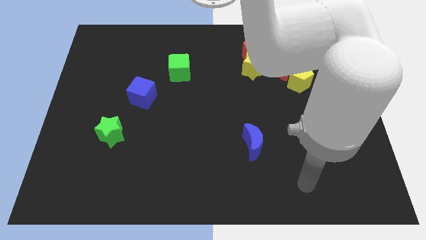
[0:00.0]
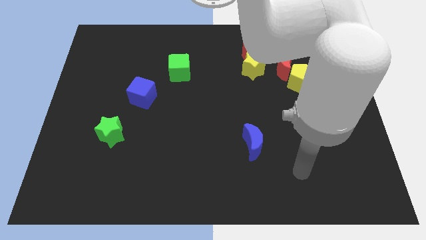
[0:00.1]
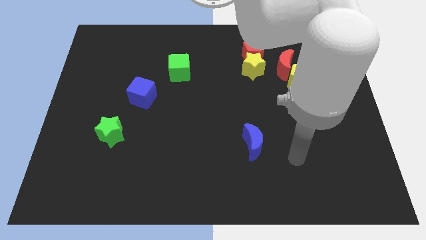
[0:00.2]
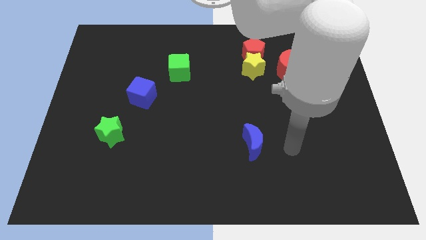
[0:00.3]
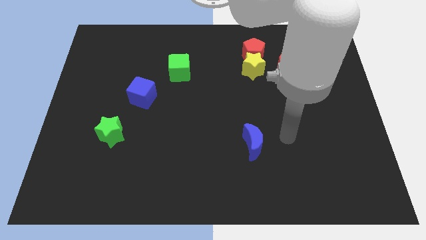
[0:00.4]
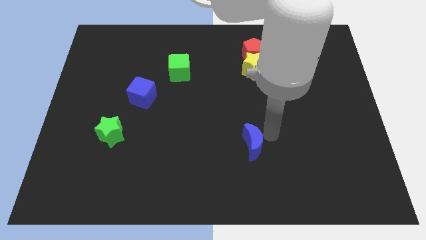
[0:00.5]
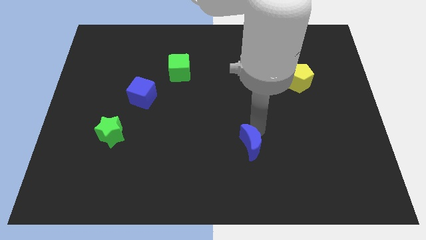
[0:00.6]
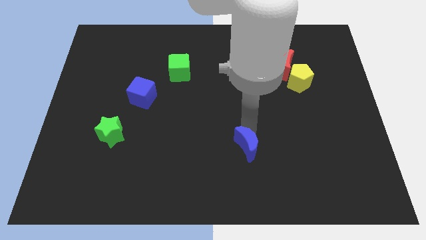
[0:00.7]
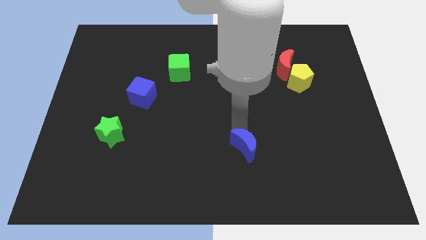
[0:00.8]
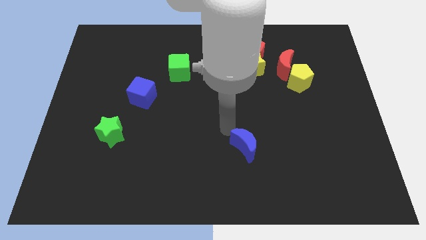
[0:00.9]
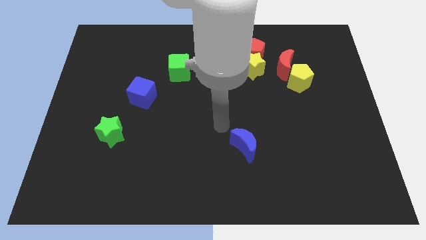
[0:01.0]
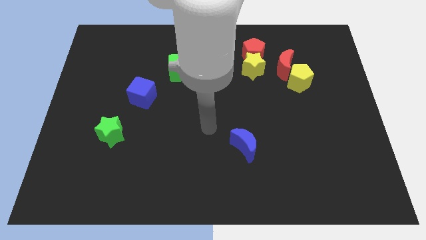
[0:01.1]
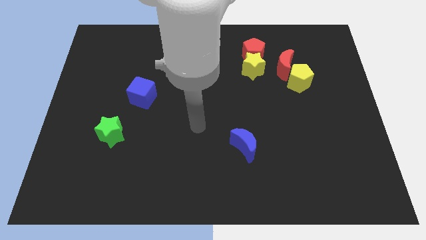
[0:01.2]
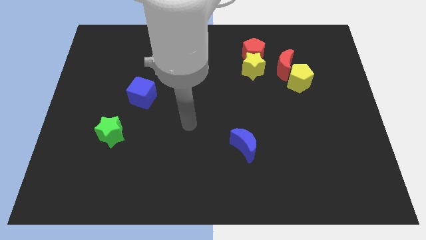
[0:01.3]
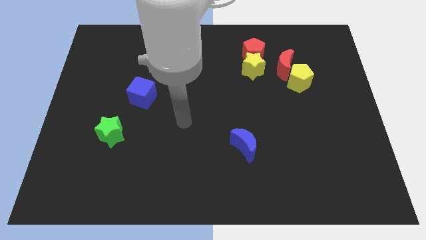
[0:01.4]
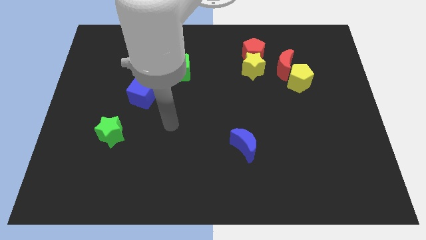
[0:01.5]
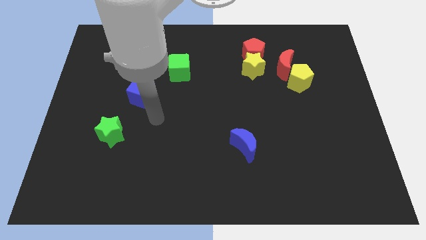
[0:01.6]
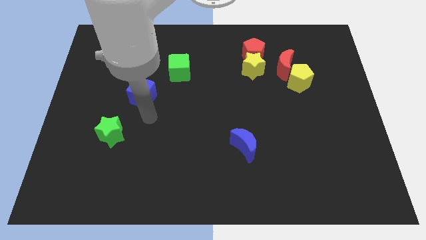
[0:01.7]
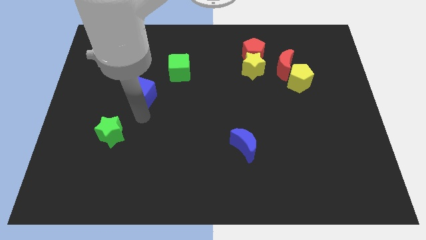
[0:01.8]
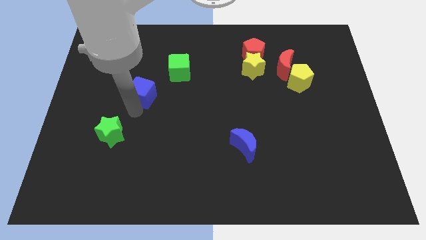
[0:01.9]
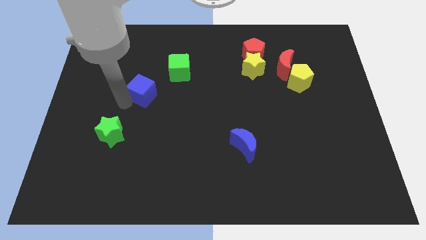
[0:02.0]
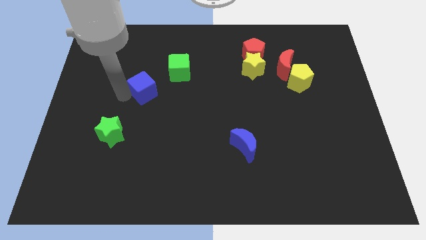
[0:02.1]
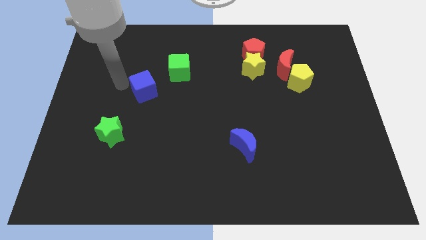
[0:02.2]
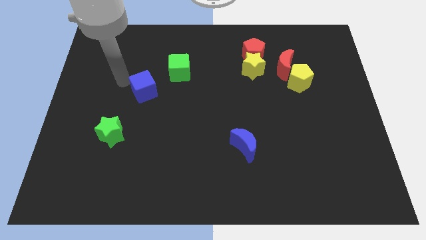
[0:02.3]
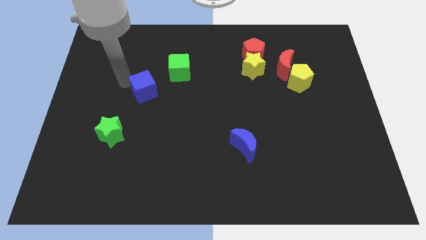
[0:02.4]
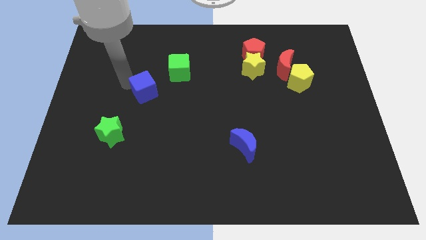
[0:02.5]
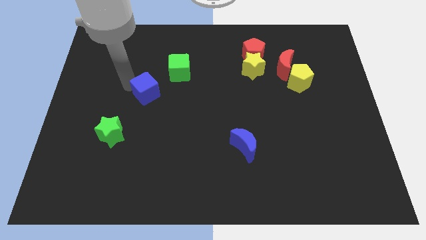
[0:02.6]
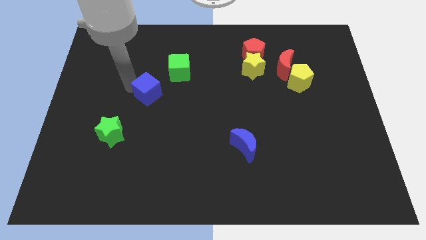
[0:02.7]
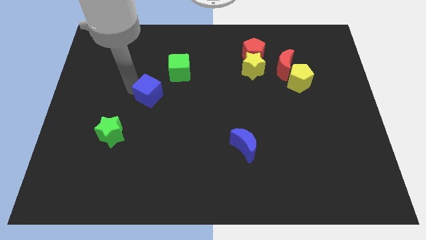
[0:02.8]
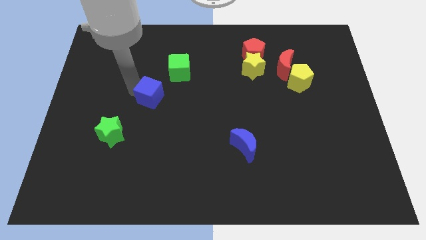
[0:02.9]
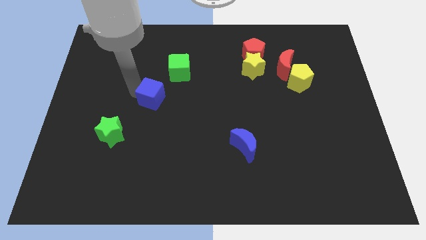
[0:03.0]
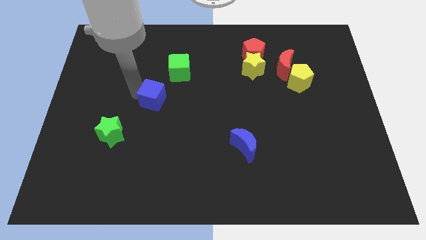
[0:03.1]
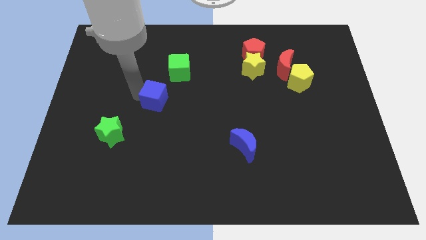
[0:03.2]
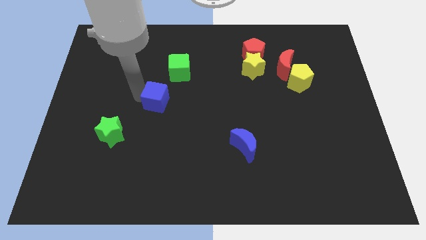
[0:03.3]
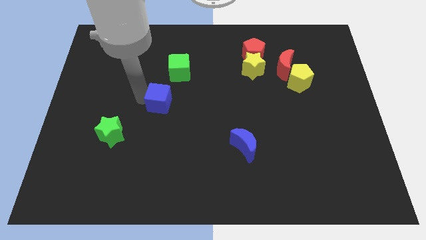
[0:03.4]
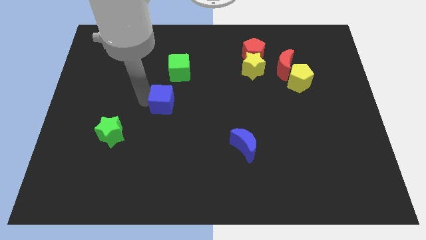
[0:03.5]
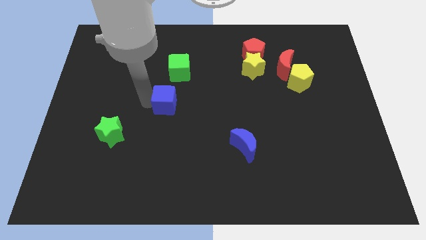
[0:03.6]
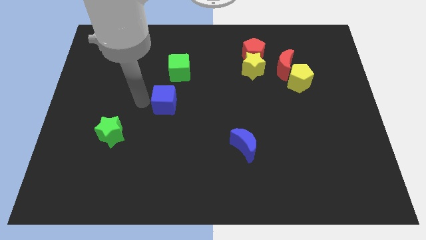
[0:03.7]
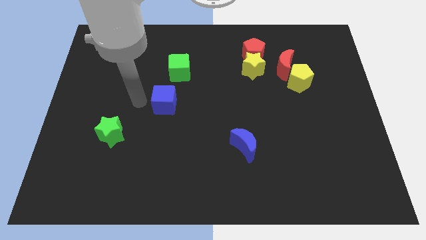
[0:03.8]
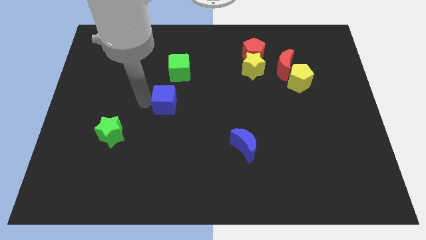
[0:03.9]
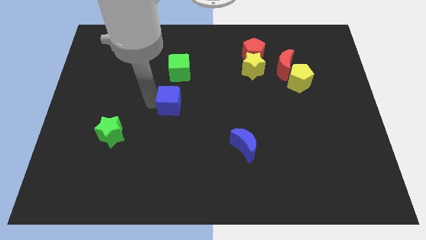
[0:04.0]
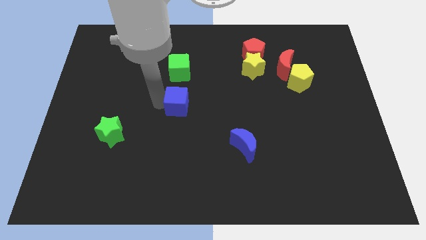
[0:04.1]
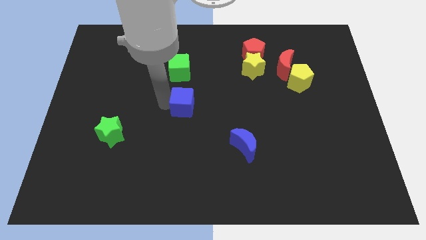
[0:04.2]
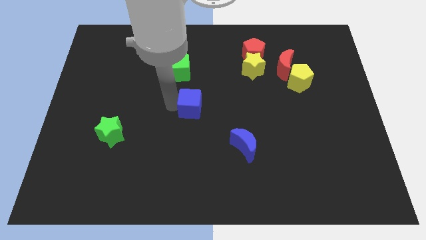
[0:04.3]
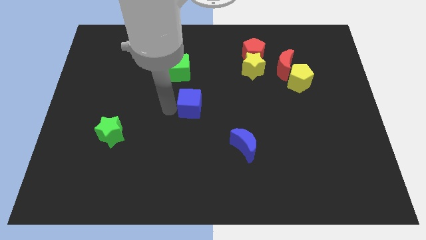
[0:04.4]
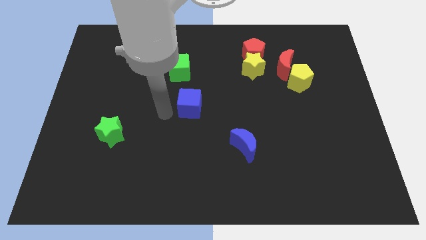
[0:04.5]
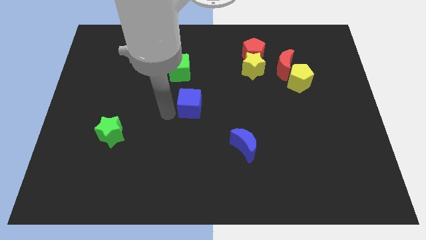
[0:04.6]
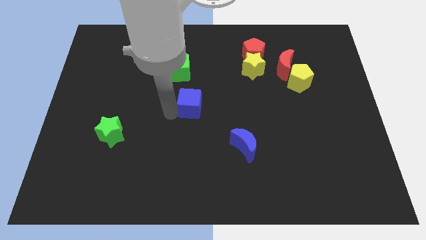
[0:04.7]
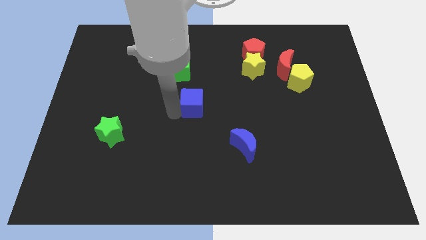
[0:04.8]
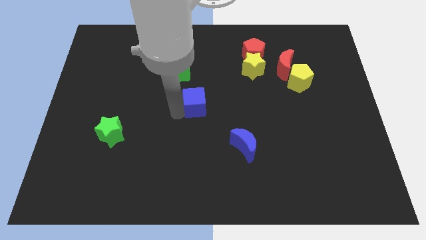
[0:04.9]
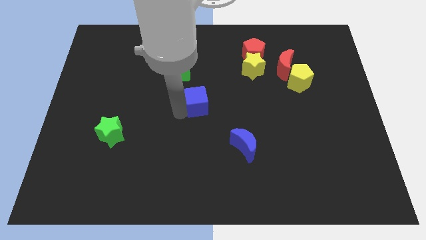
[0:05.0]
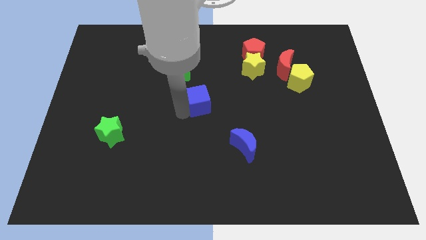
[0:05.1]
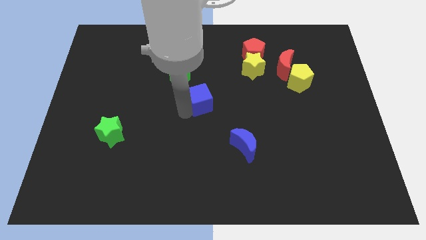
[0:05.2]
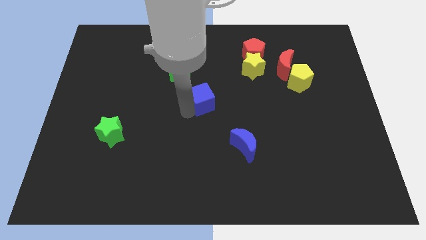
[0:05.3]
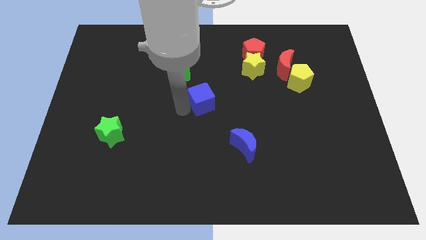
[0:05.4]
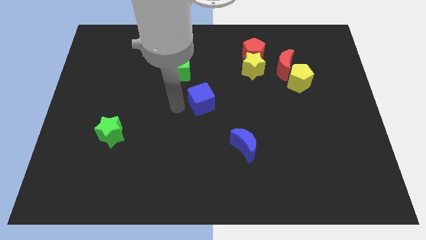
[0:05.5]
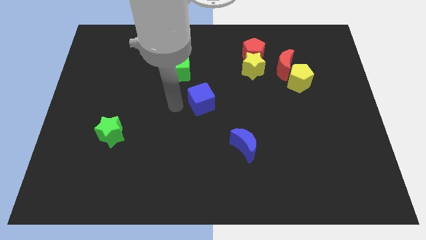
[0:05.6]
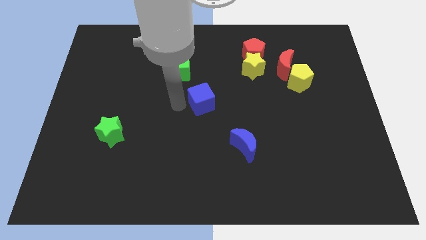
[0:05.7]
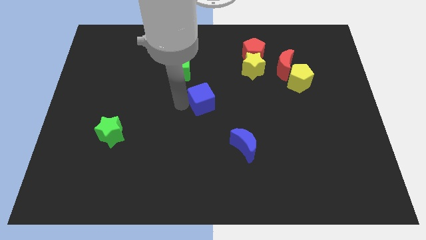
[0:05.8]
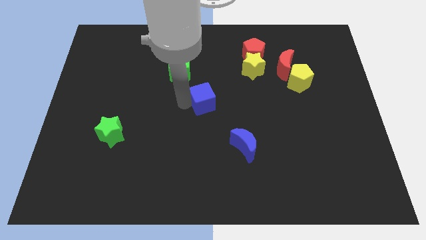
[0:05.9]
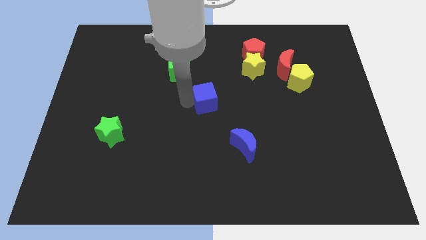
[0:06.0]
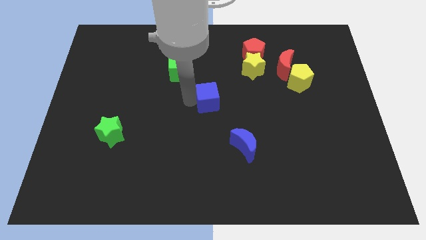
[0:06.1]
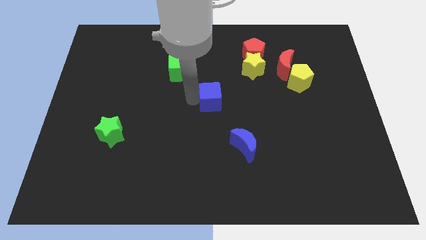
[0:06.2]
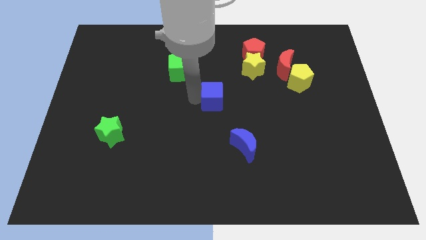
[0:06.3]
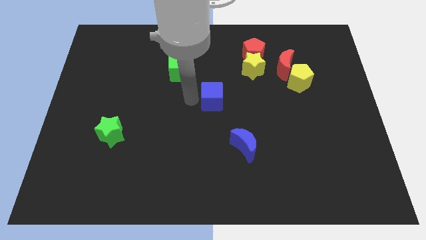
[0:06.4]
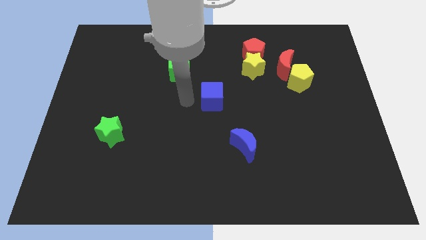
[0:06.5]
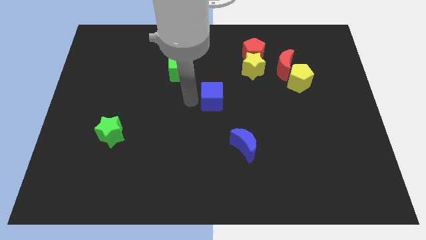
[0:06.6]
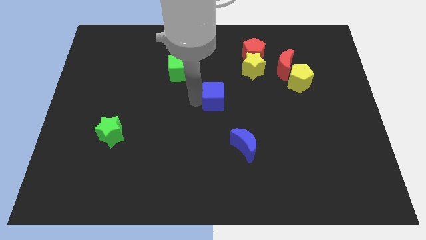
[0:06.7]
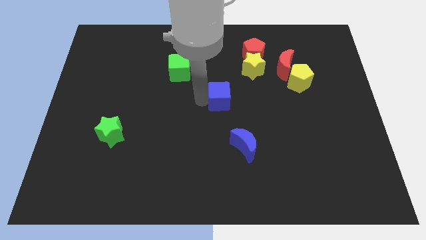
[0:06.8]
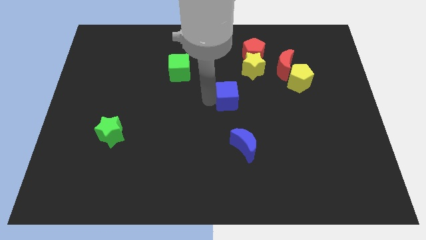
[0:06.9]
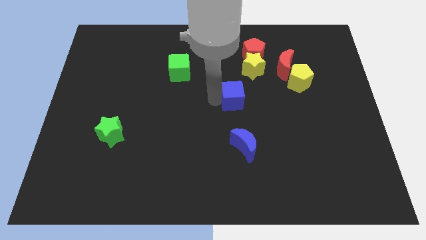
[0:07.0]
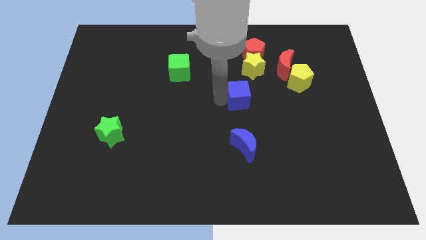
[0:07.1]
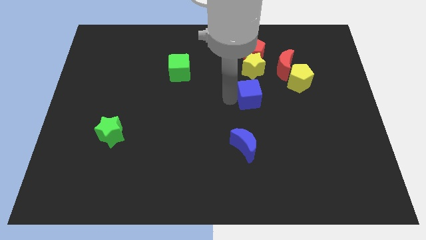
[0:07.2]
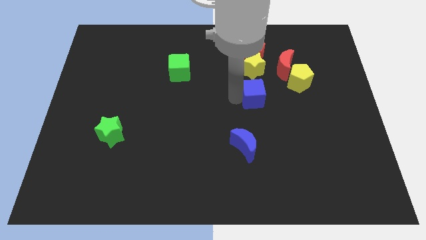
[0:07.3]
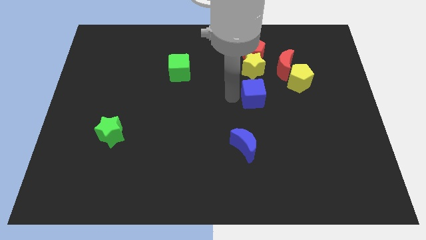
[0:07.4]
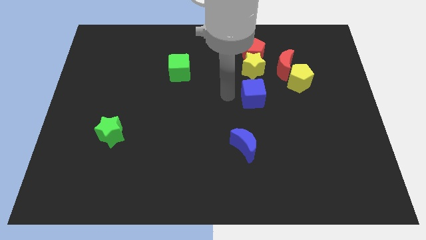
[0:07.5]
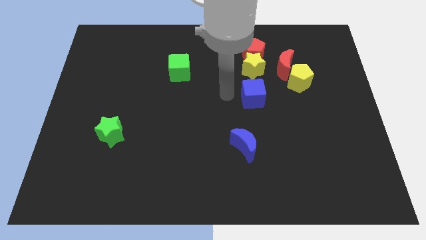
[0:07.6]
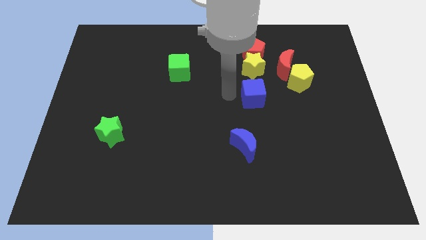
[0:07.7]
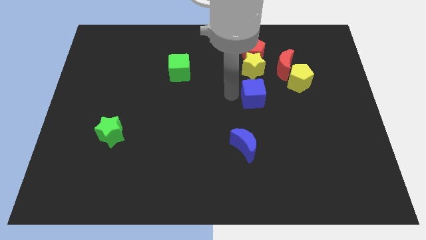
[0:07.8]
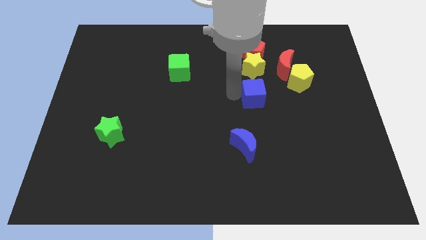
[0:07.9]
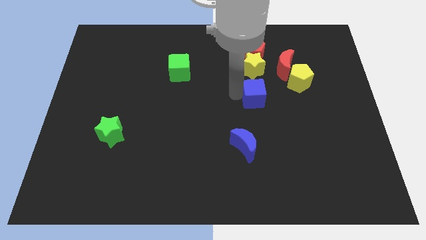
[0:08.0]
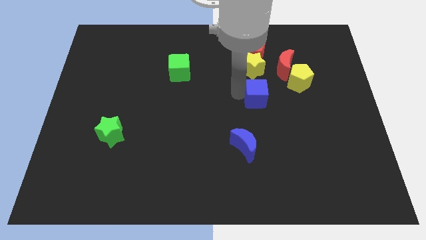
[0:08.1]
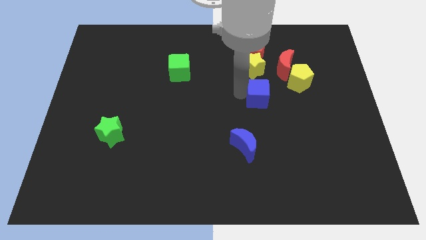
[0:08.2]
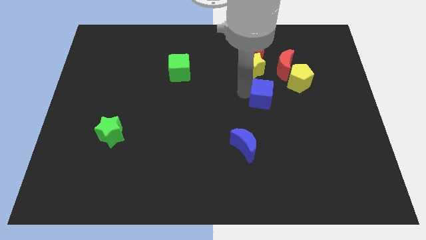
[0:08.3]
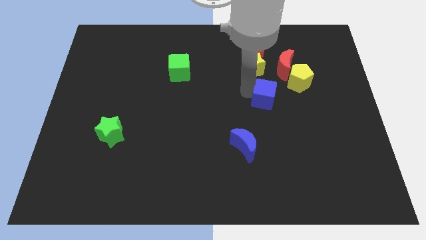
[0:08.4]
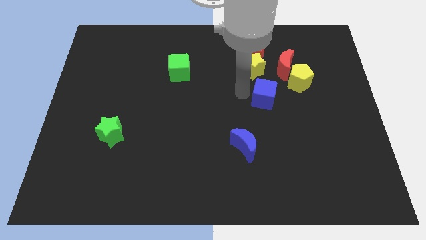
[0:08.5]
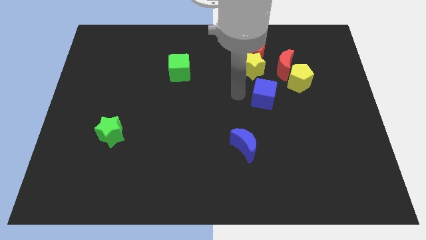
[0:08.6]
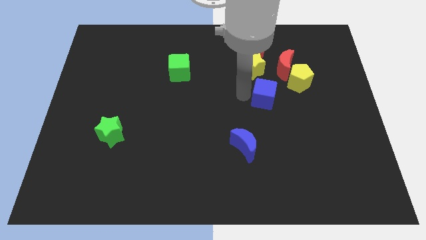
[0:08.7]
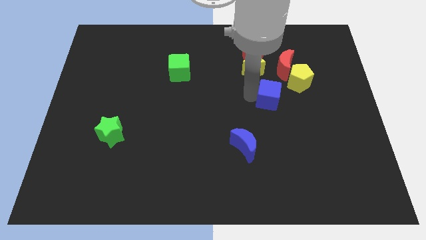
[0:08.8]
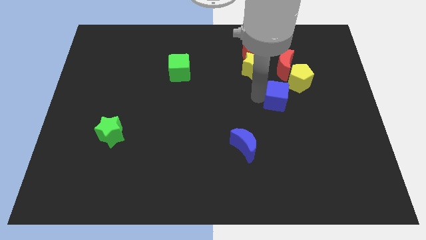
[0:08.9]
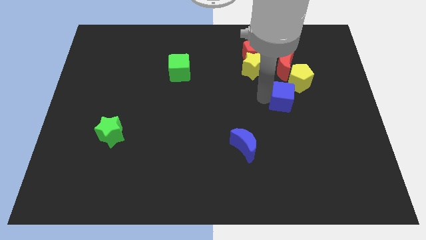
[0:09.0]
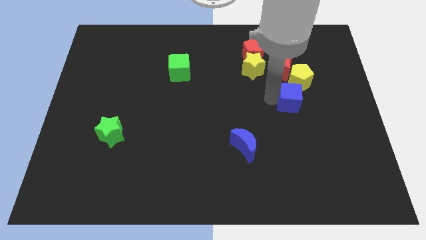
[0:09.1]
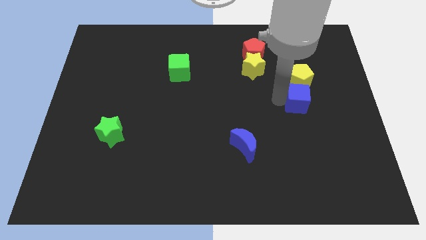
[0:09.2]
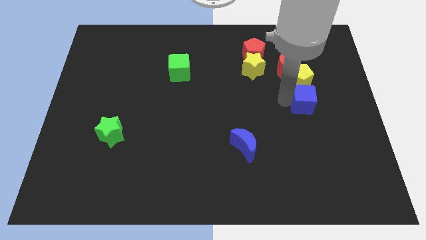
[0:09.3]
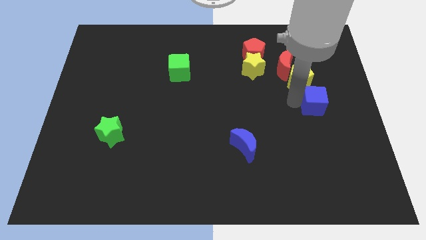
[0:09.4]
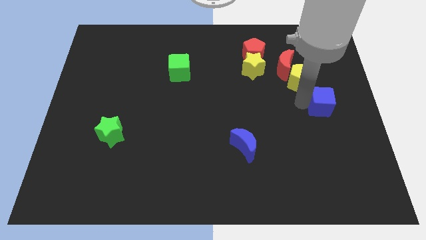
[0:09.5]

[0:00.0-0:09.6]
push the blue cube to the right side of the board
